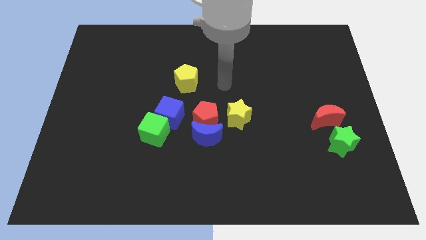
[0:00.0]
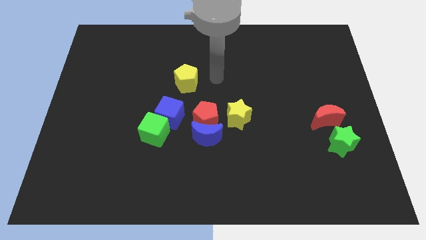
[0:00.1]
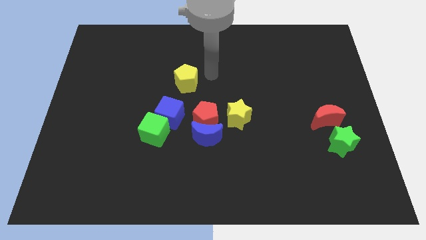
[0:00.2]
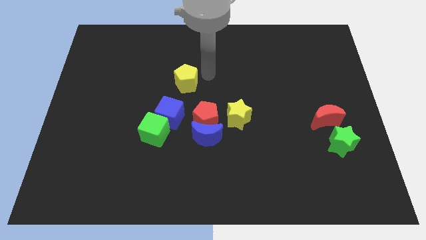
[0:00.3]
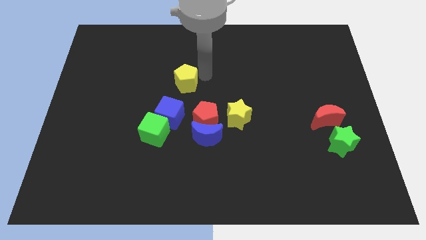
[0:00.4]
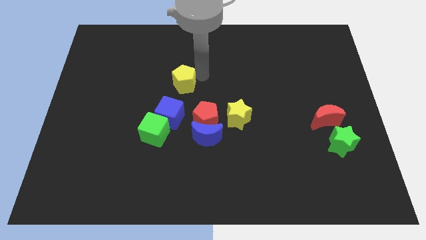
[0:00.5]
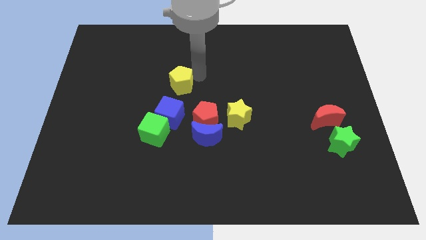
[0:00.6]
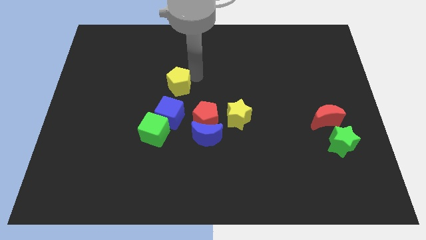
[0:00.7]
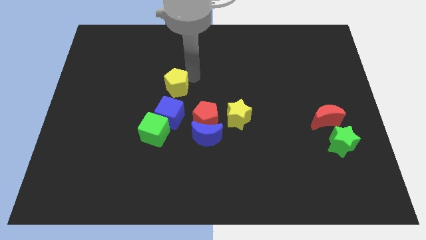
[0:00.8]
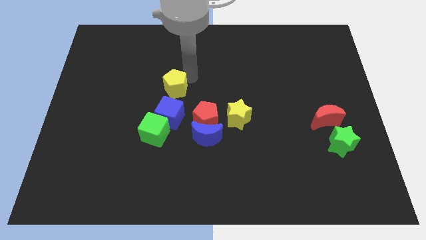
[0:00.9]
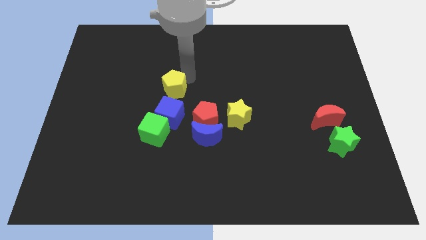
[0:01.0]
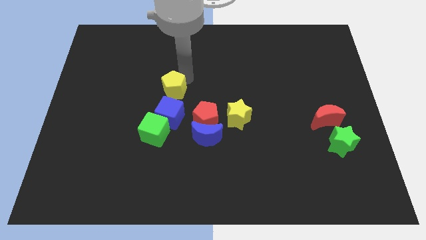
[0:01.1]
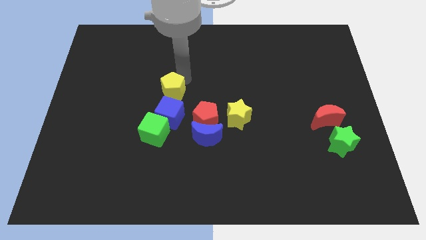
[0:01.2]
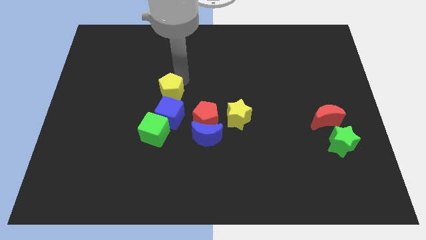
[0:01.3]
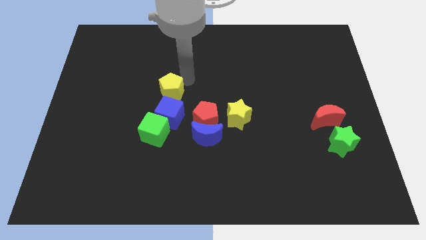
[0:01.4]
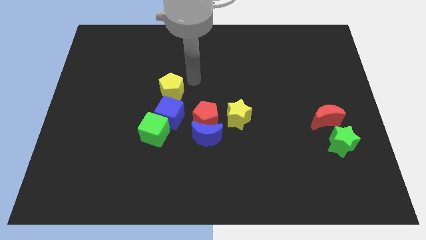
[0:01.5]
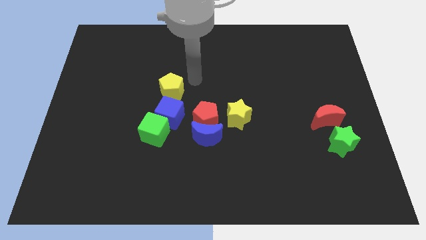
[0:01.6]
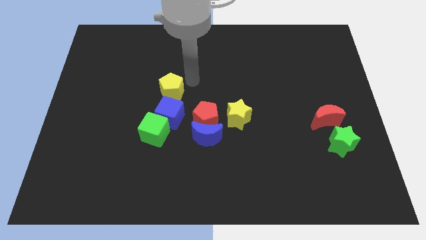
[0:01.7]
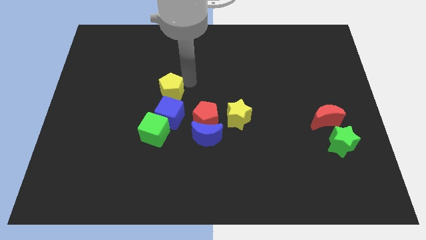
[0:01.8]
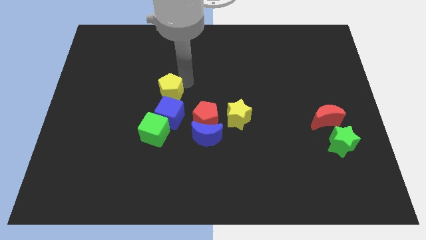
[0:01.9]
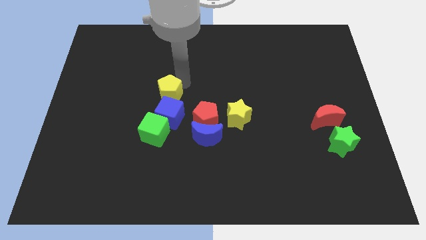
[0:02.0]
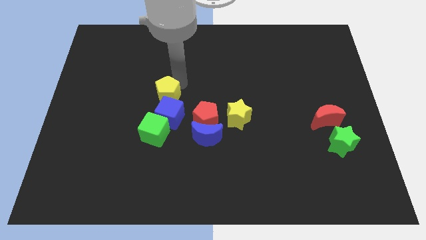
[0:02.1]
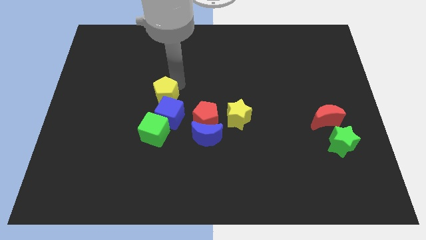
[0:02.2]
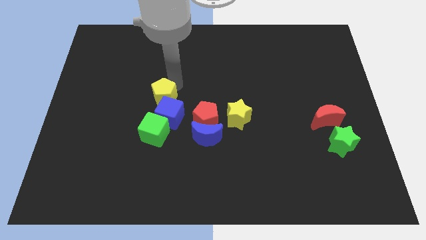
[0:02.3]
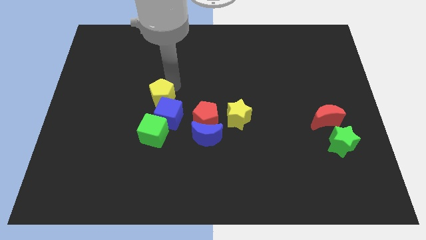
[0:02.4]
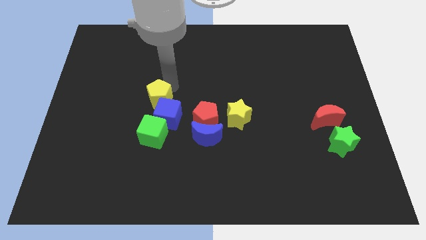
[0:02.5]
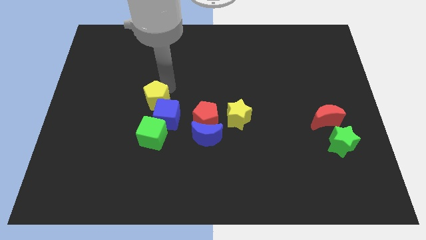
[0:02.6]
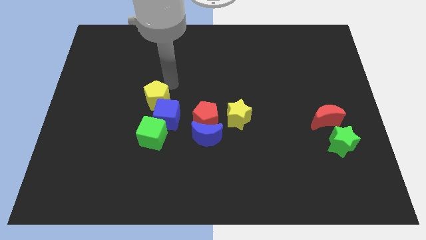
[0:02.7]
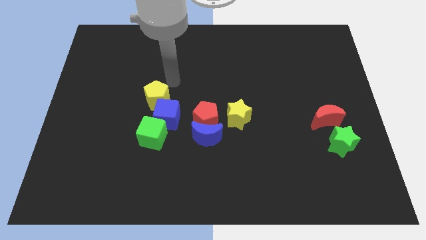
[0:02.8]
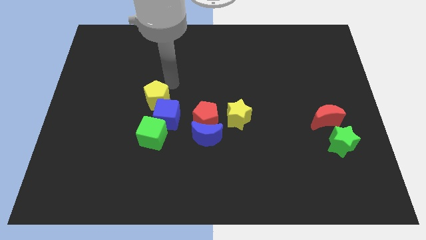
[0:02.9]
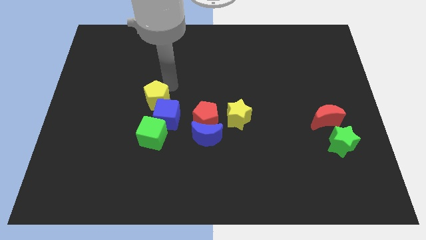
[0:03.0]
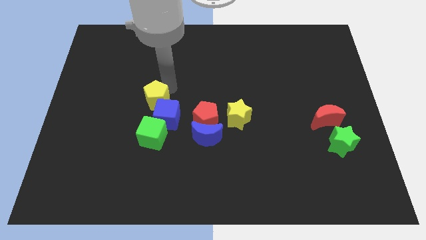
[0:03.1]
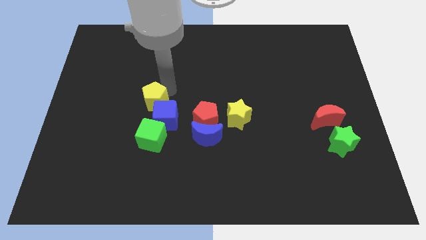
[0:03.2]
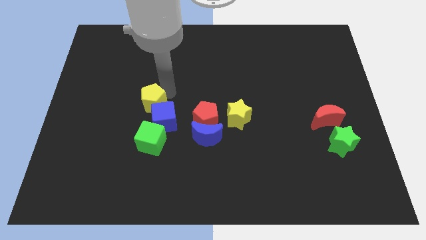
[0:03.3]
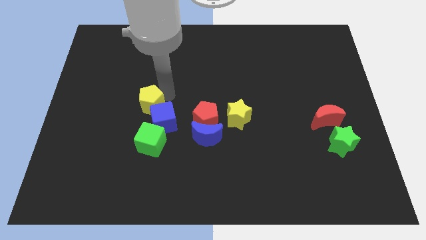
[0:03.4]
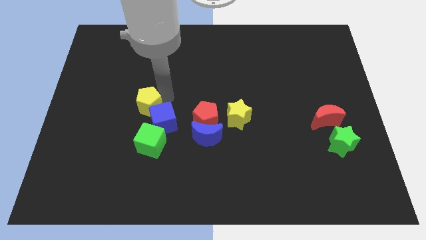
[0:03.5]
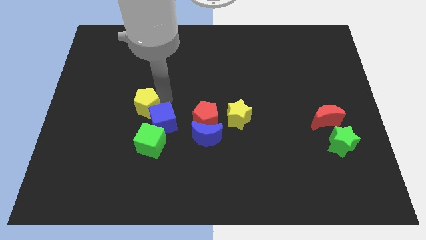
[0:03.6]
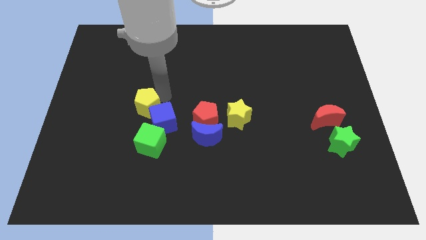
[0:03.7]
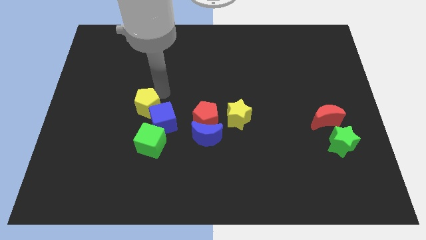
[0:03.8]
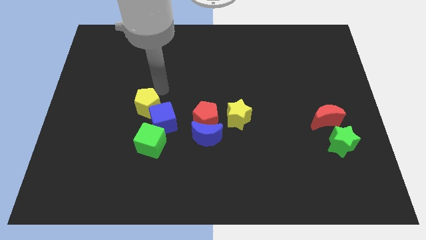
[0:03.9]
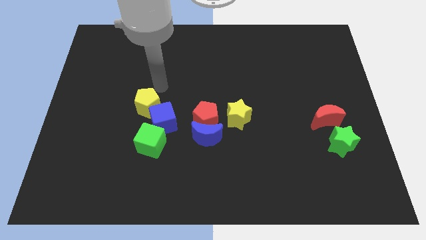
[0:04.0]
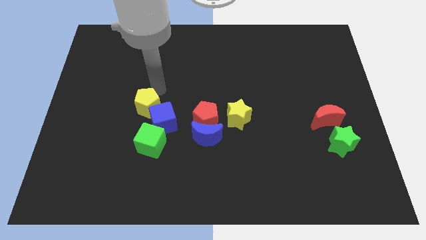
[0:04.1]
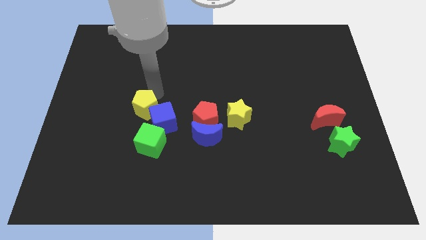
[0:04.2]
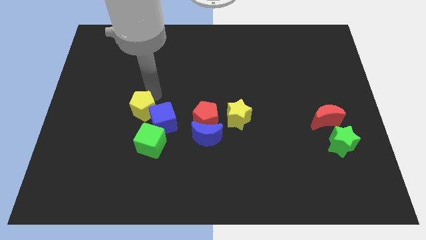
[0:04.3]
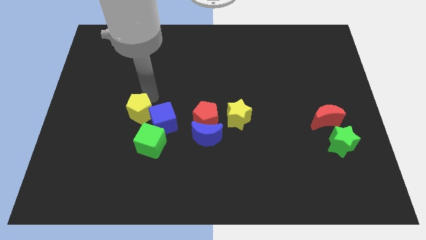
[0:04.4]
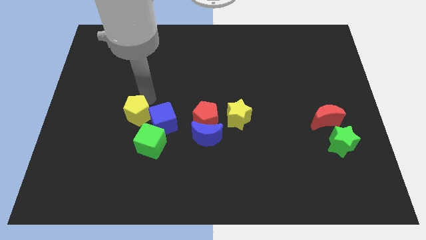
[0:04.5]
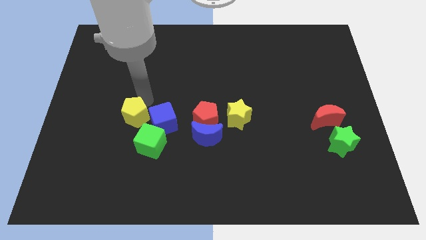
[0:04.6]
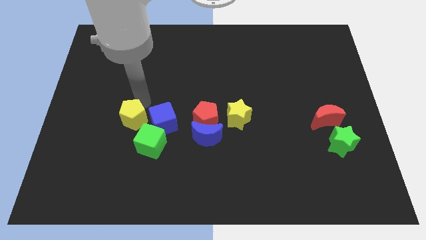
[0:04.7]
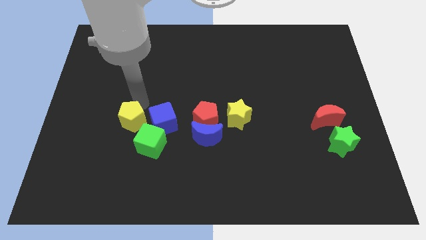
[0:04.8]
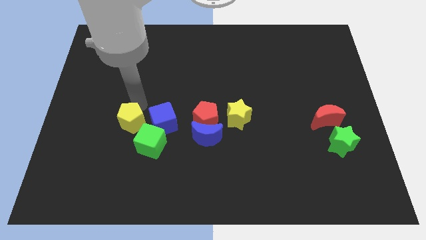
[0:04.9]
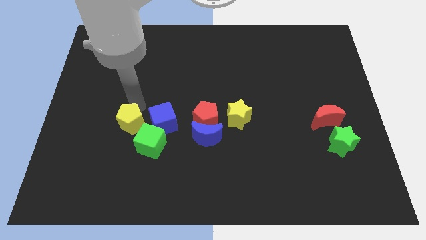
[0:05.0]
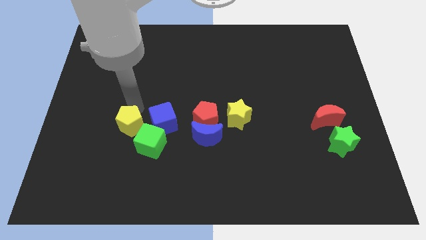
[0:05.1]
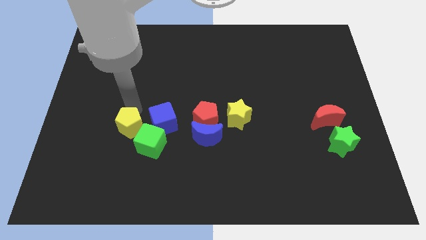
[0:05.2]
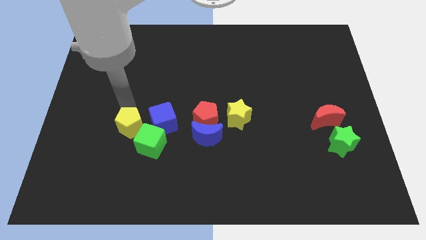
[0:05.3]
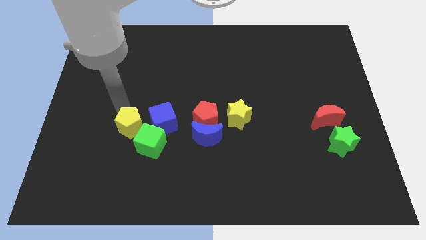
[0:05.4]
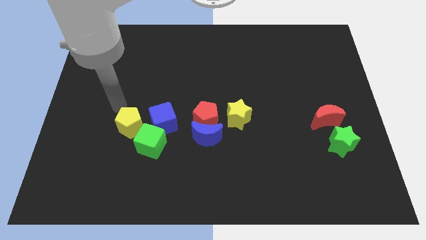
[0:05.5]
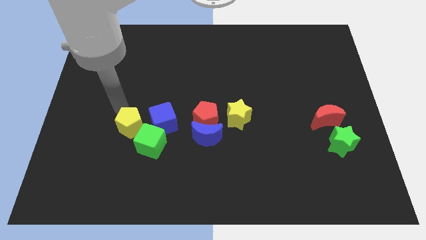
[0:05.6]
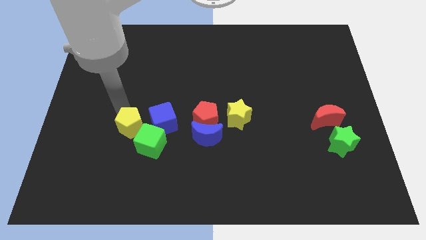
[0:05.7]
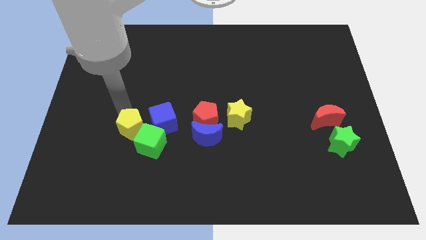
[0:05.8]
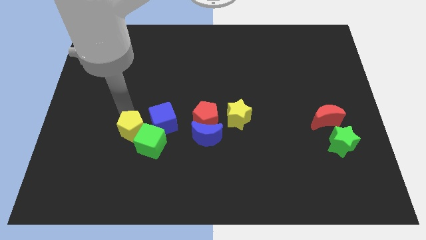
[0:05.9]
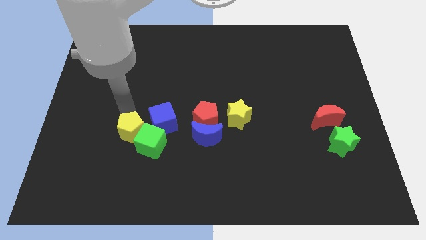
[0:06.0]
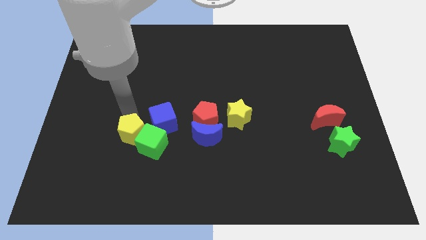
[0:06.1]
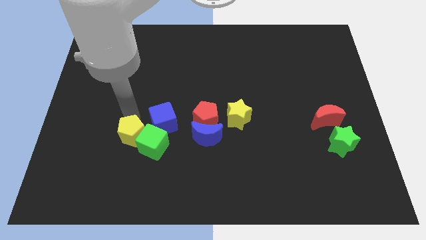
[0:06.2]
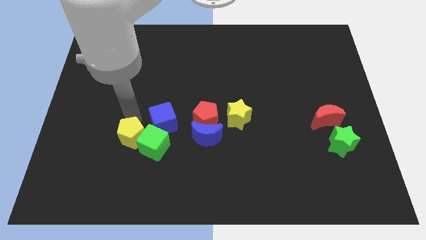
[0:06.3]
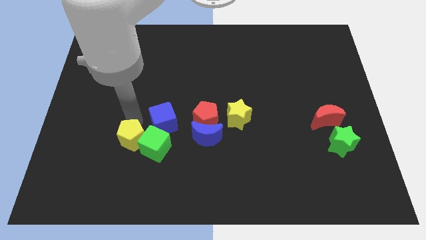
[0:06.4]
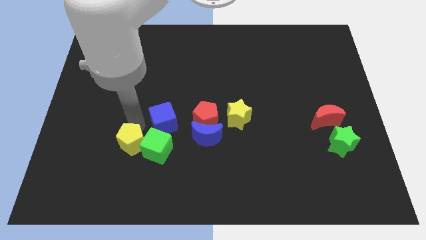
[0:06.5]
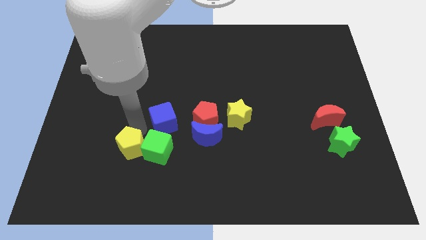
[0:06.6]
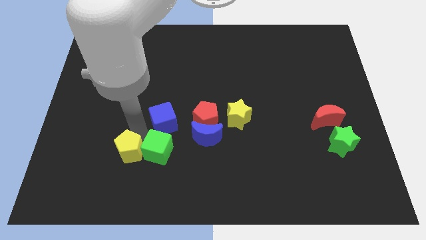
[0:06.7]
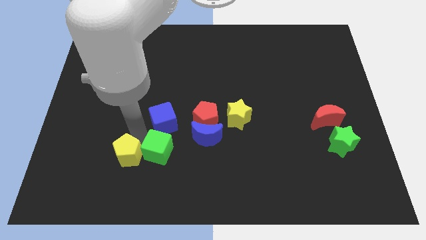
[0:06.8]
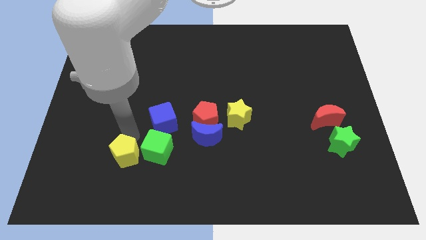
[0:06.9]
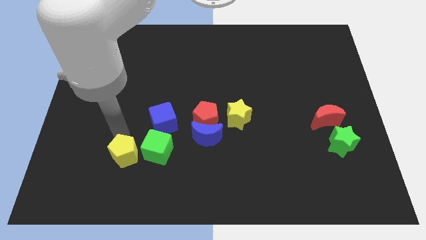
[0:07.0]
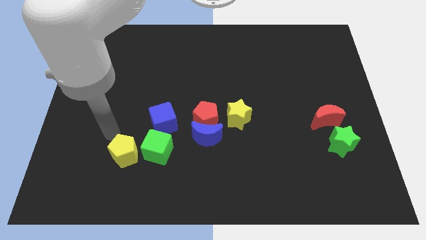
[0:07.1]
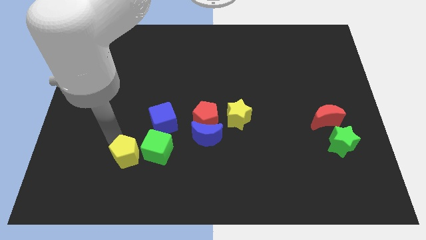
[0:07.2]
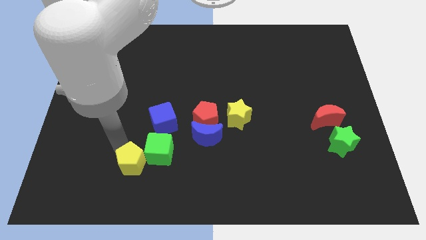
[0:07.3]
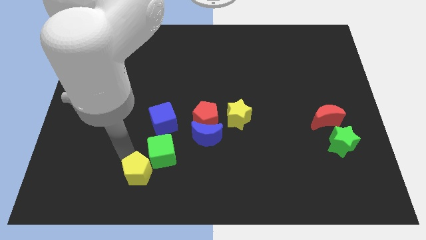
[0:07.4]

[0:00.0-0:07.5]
slide the yellow pentagon to the bottom of the green cube
